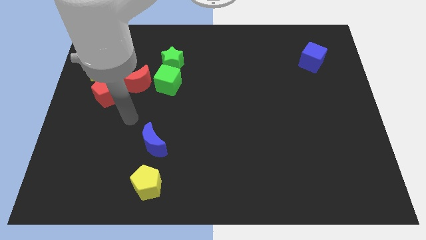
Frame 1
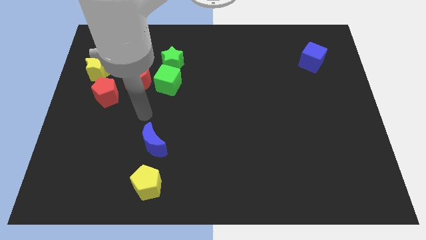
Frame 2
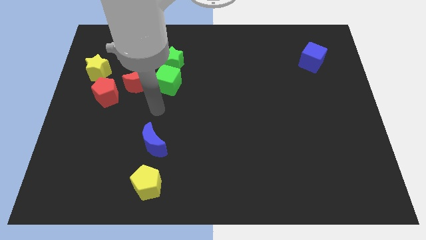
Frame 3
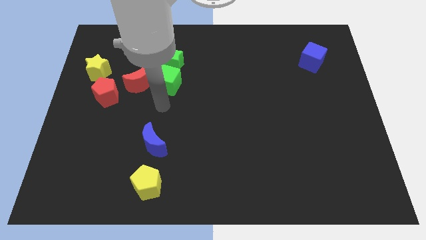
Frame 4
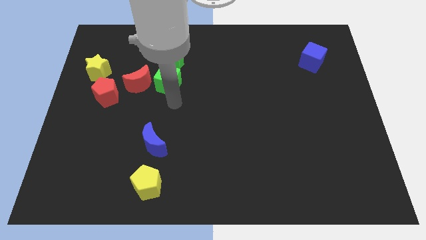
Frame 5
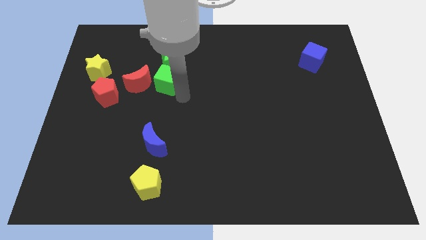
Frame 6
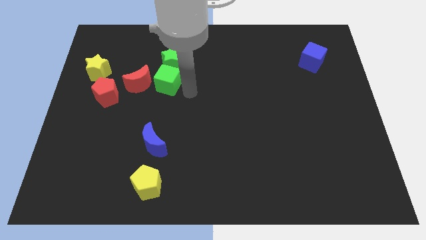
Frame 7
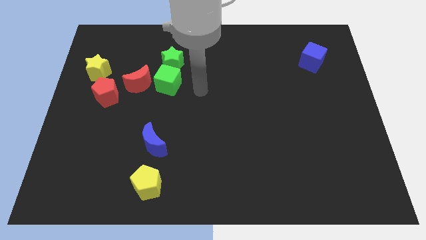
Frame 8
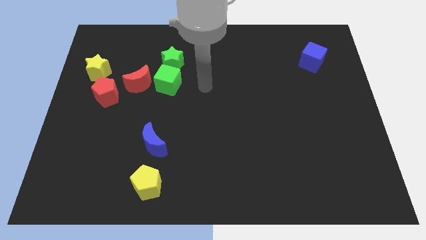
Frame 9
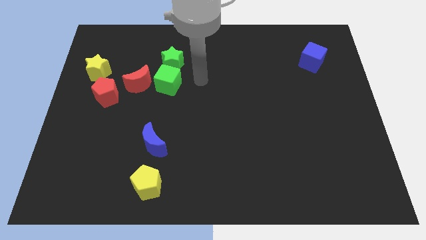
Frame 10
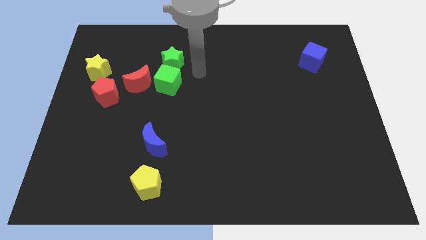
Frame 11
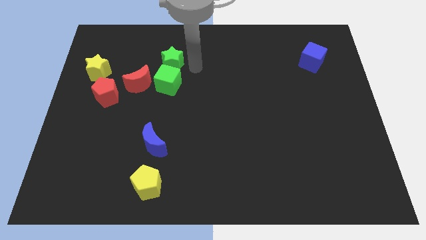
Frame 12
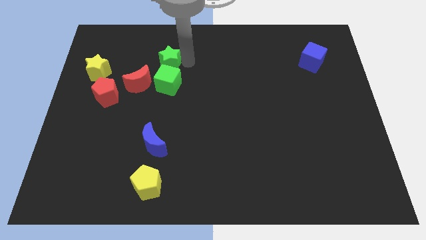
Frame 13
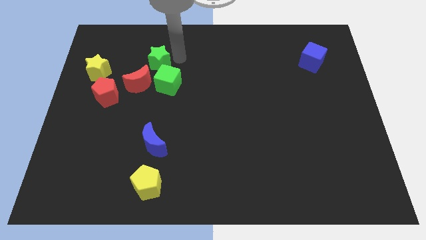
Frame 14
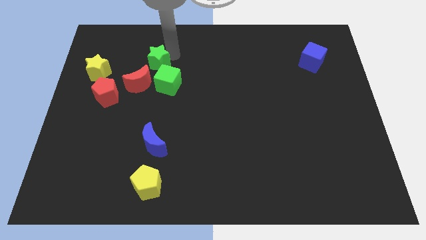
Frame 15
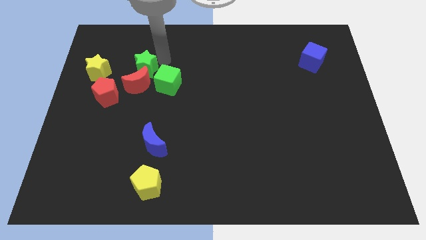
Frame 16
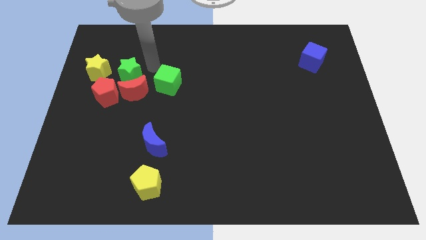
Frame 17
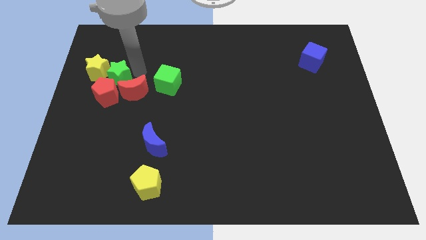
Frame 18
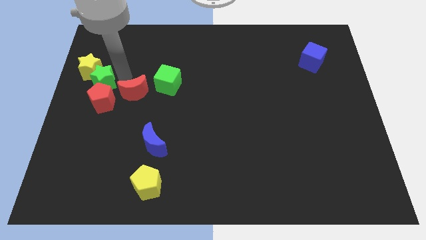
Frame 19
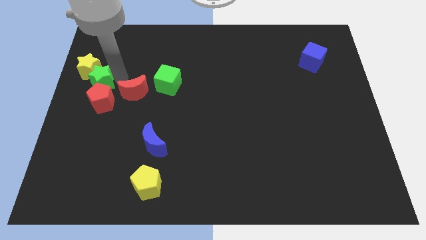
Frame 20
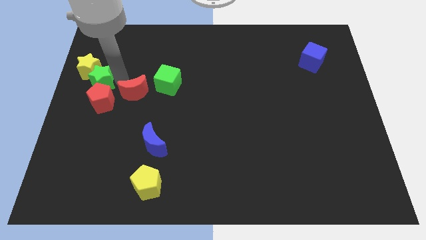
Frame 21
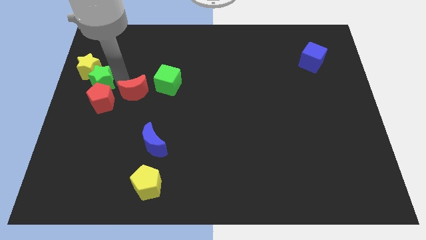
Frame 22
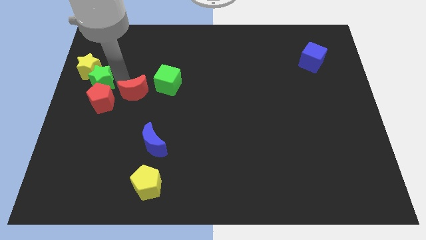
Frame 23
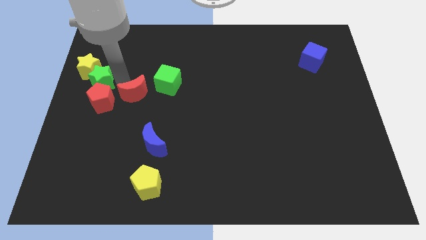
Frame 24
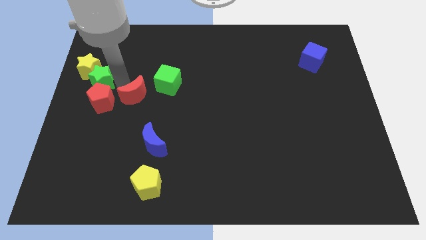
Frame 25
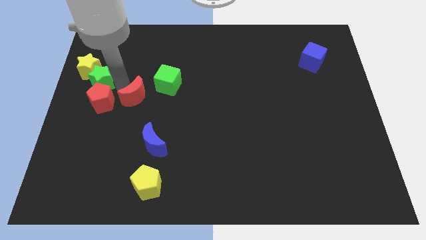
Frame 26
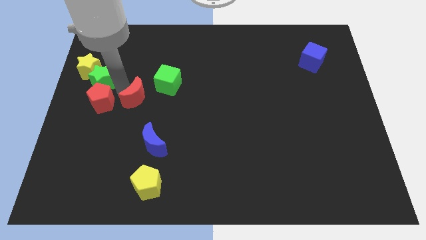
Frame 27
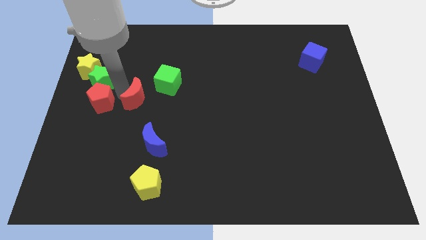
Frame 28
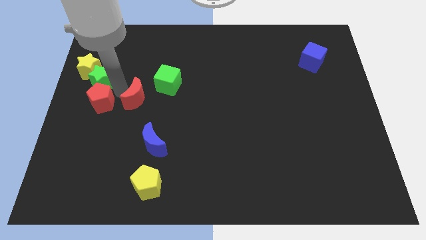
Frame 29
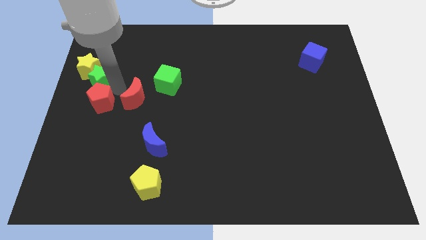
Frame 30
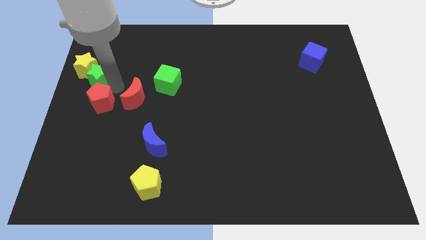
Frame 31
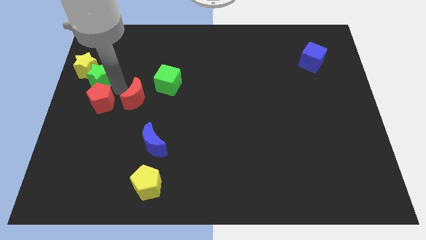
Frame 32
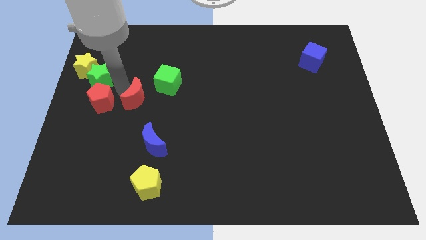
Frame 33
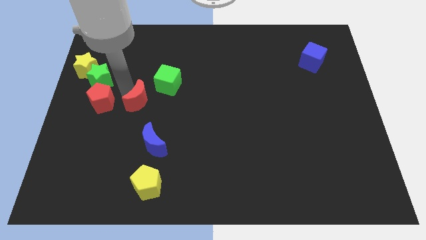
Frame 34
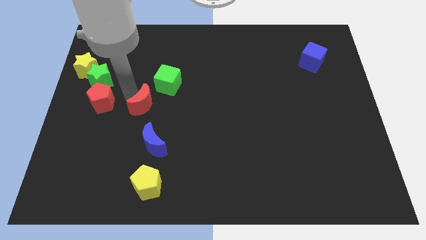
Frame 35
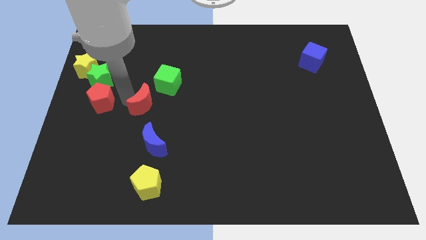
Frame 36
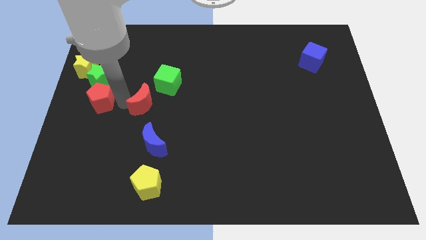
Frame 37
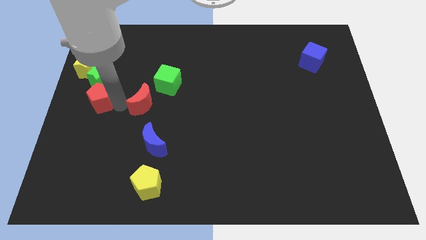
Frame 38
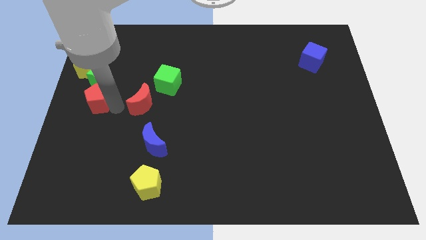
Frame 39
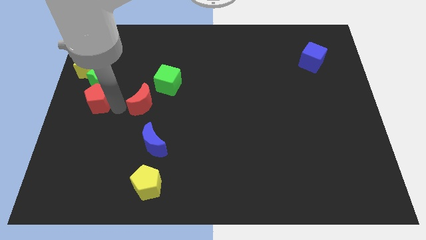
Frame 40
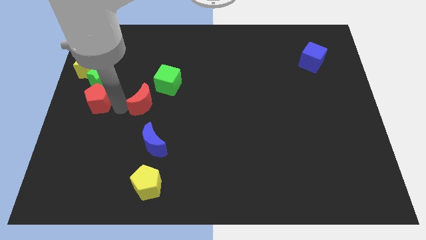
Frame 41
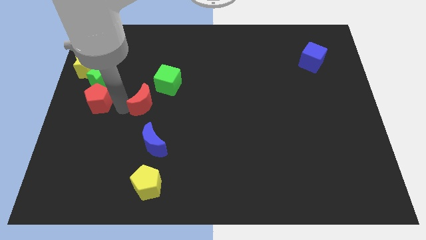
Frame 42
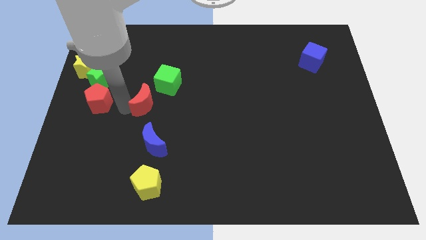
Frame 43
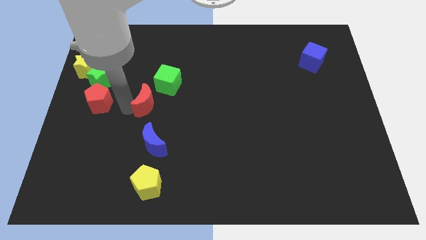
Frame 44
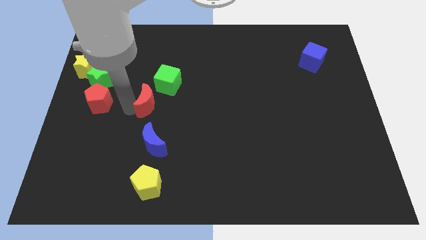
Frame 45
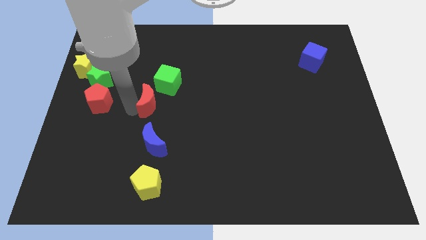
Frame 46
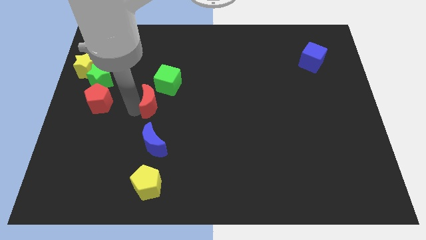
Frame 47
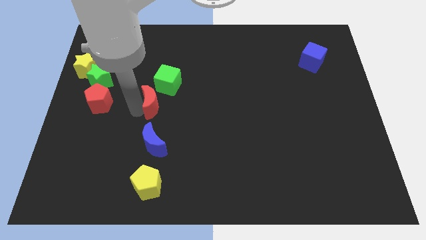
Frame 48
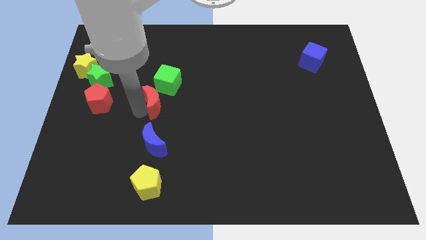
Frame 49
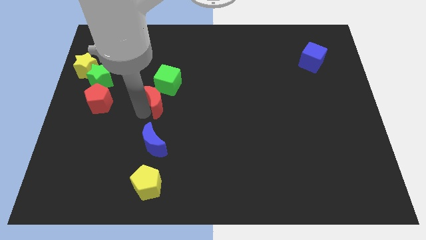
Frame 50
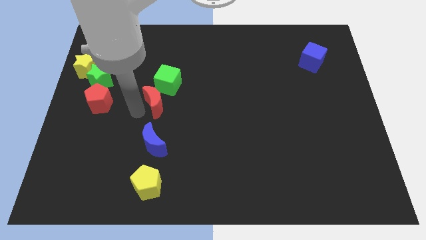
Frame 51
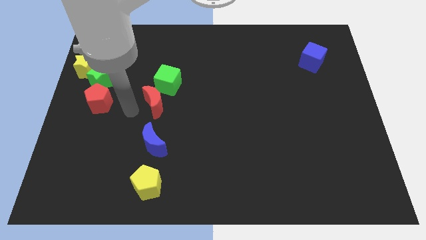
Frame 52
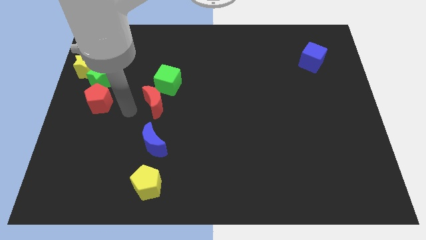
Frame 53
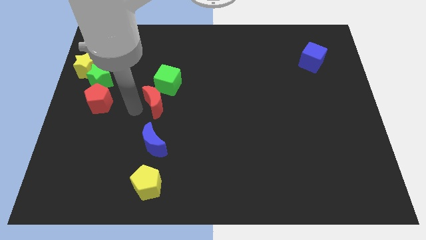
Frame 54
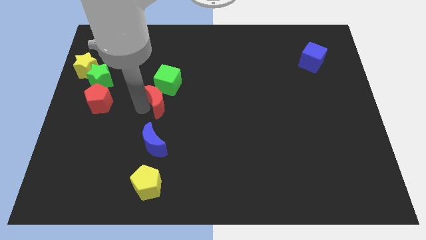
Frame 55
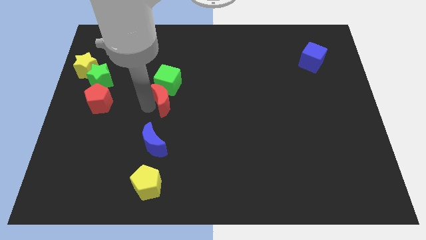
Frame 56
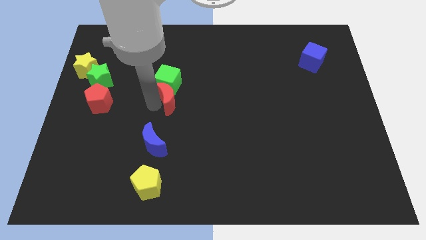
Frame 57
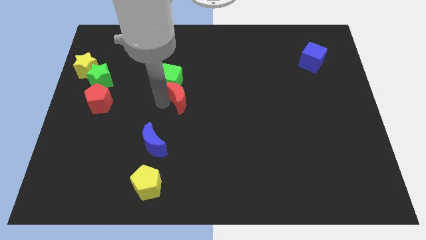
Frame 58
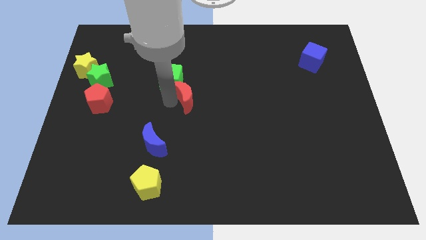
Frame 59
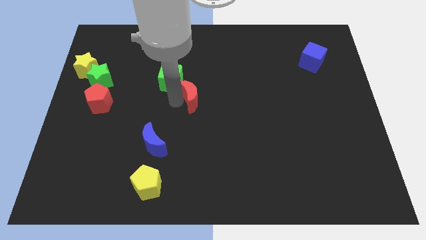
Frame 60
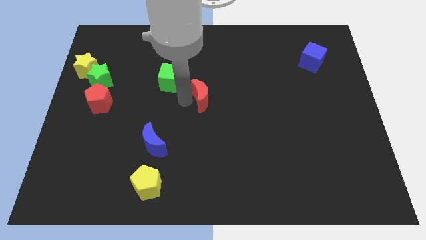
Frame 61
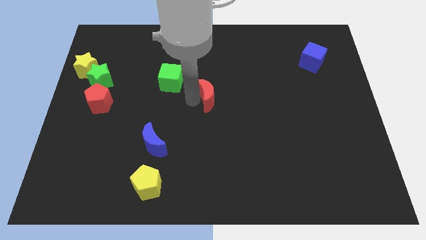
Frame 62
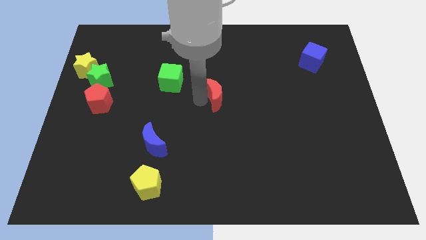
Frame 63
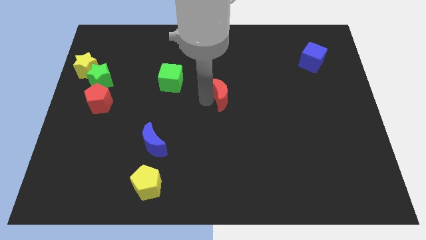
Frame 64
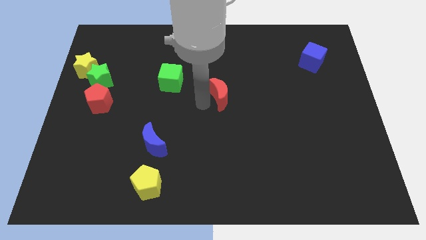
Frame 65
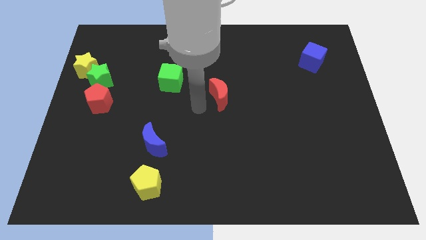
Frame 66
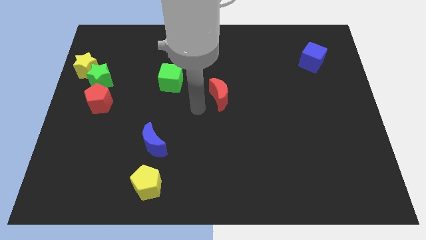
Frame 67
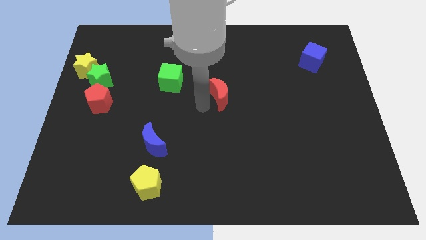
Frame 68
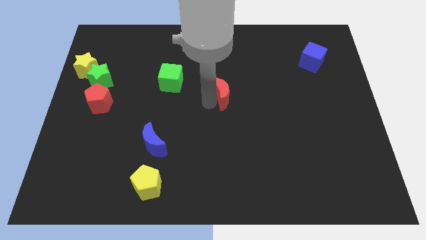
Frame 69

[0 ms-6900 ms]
move the red moon right

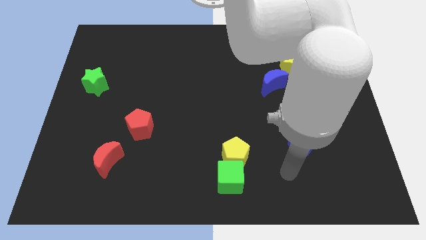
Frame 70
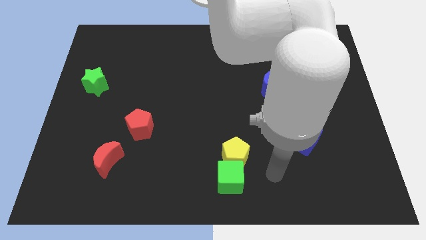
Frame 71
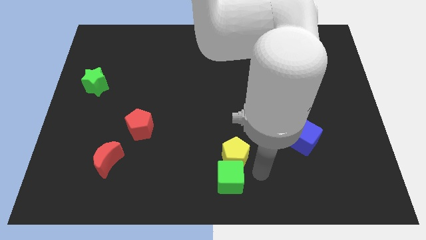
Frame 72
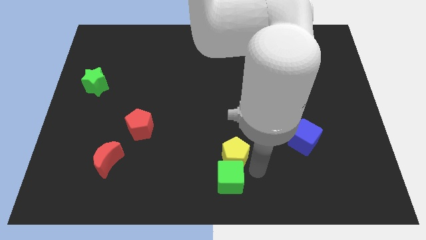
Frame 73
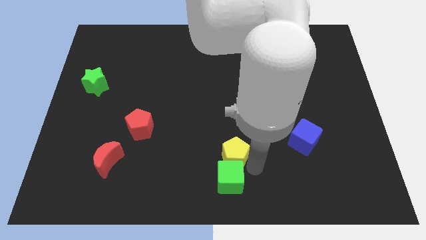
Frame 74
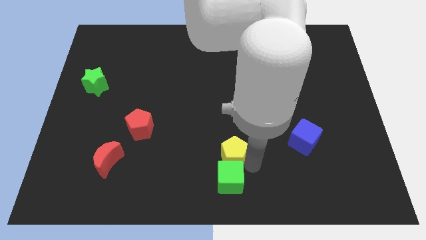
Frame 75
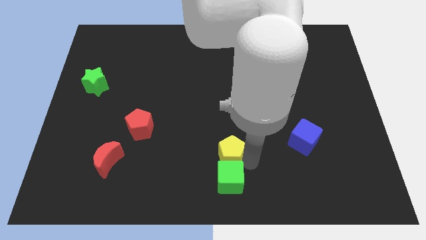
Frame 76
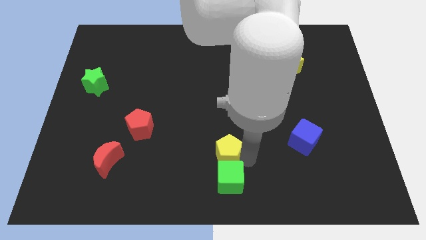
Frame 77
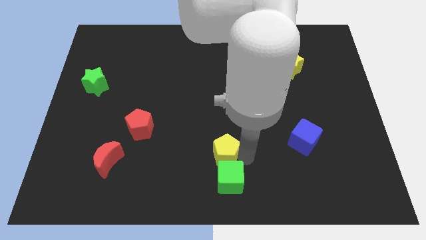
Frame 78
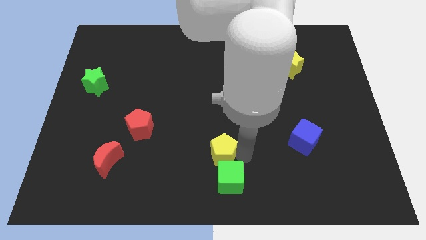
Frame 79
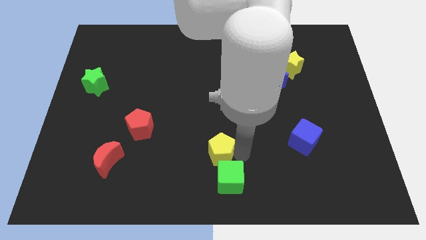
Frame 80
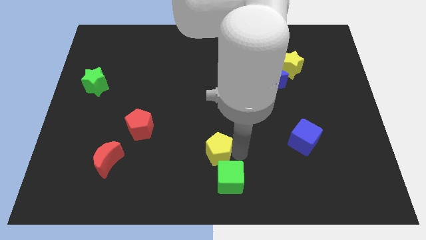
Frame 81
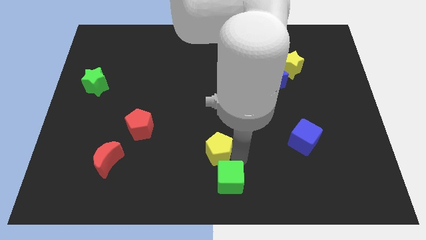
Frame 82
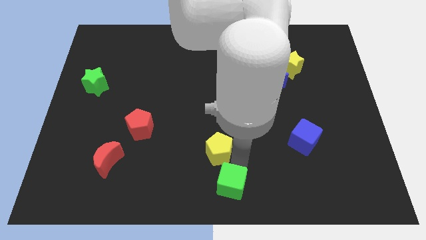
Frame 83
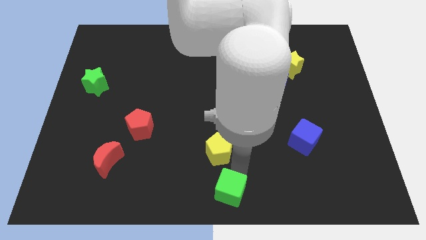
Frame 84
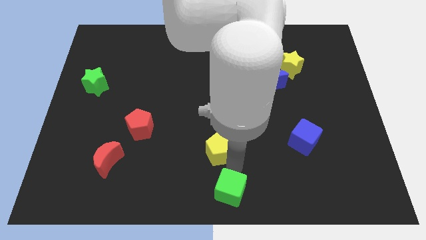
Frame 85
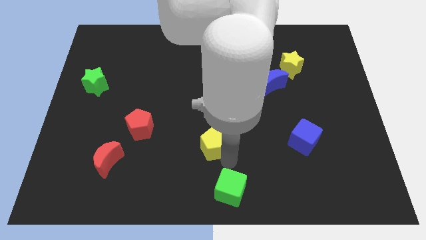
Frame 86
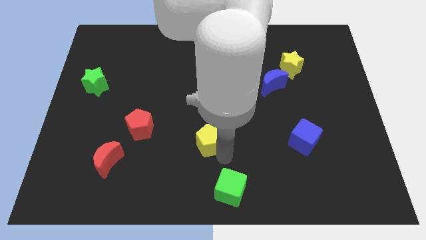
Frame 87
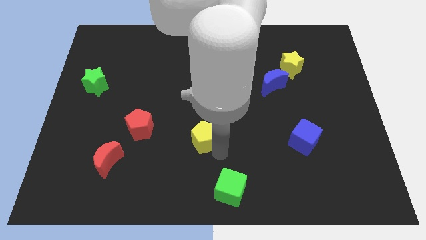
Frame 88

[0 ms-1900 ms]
slide the yellow pentagon a little up and left diagonally
